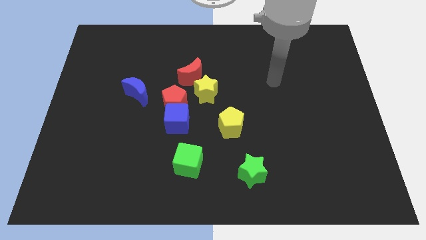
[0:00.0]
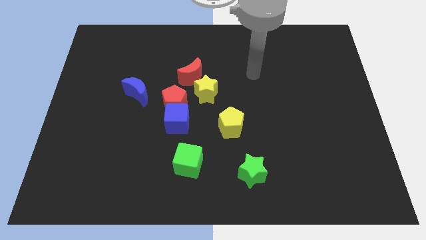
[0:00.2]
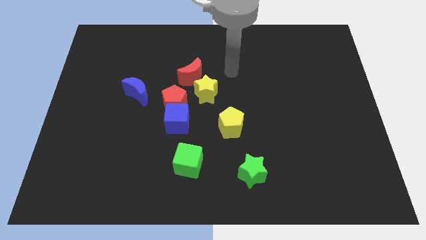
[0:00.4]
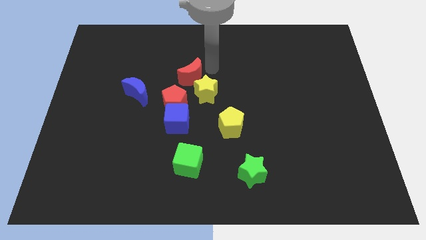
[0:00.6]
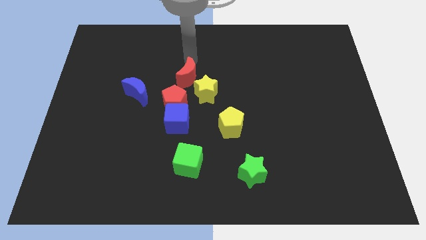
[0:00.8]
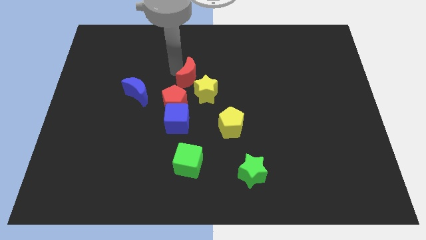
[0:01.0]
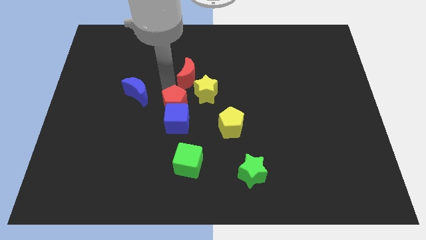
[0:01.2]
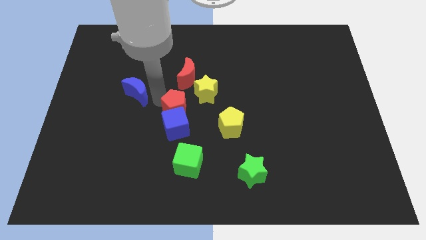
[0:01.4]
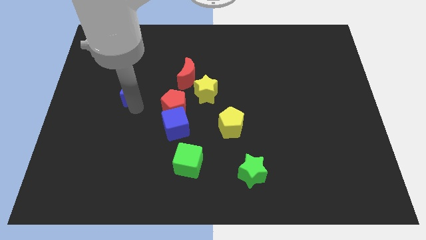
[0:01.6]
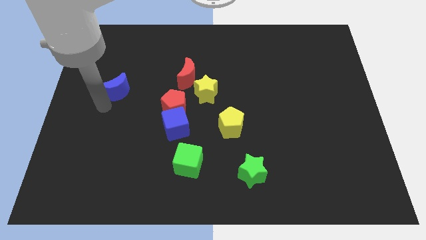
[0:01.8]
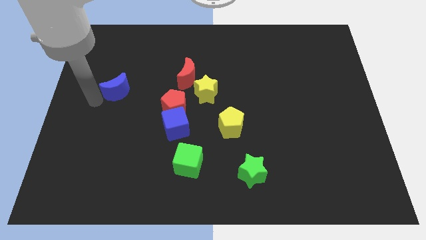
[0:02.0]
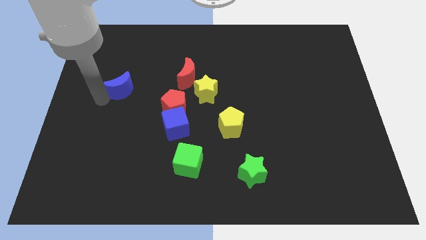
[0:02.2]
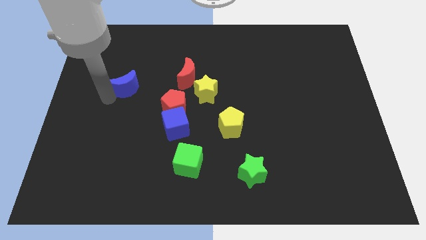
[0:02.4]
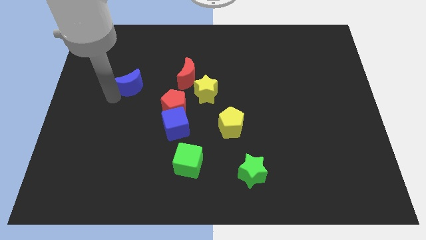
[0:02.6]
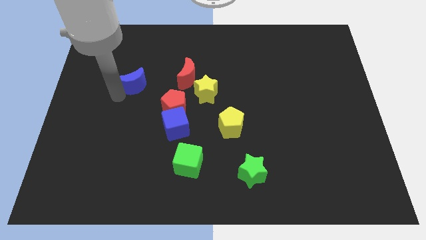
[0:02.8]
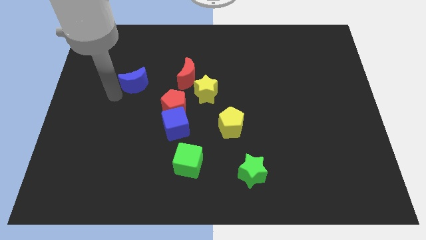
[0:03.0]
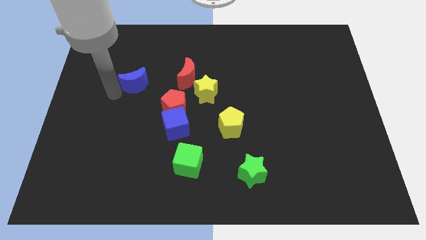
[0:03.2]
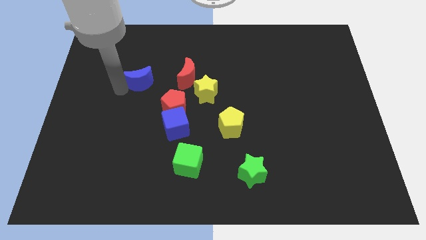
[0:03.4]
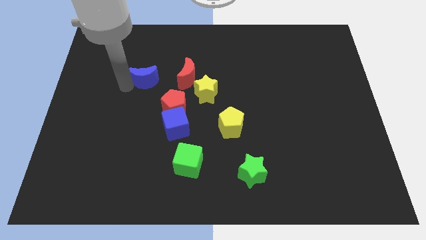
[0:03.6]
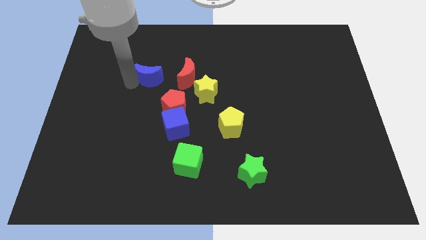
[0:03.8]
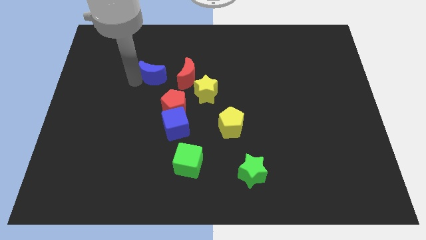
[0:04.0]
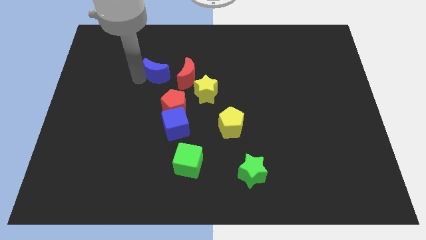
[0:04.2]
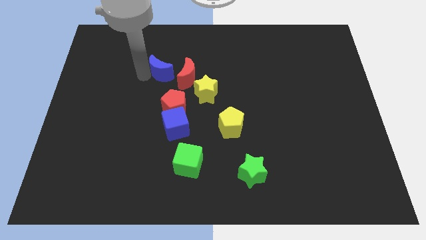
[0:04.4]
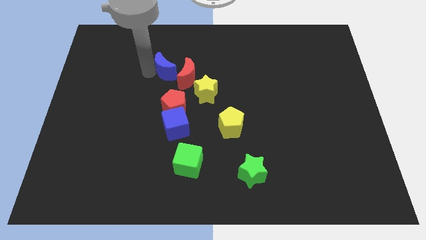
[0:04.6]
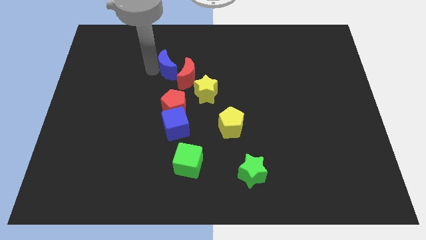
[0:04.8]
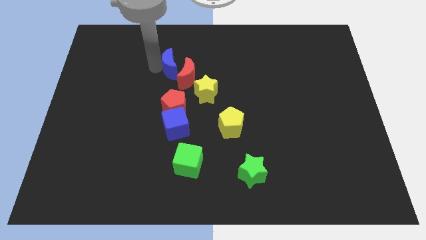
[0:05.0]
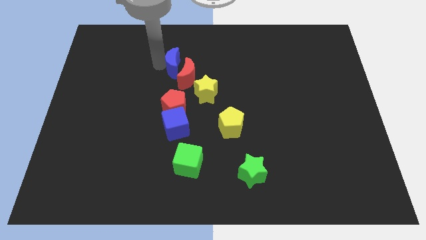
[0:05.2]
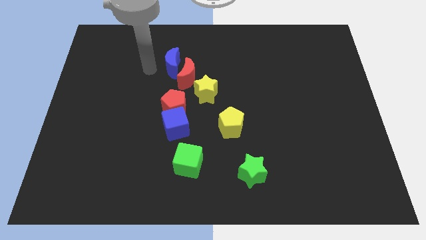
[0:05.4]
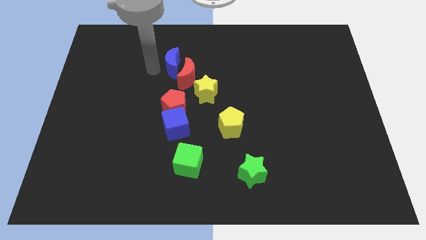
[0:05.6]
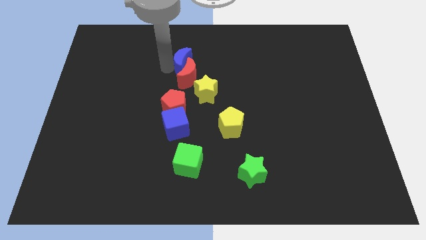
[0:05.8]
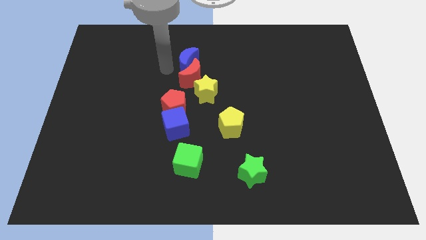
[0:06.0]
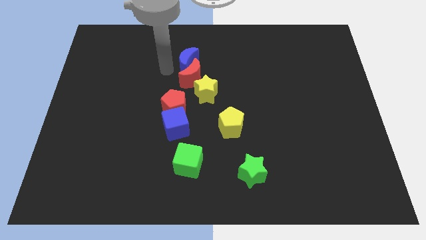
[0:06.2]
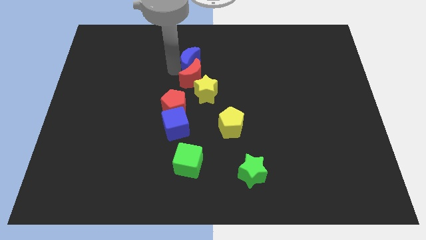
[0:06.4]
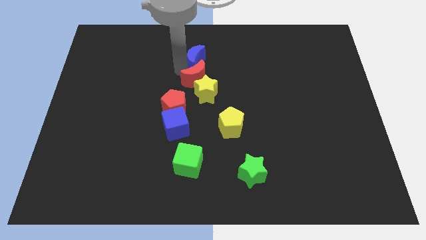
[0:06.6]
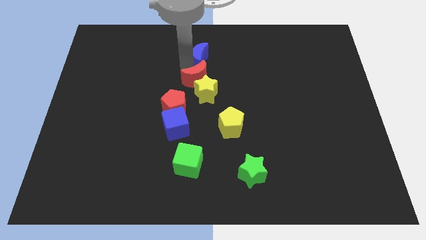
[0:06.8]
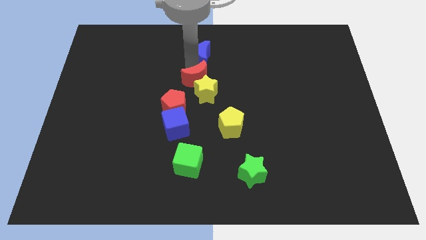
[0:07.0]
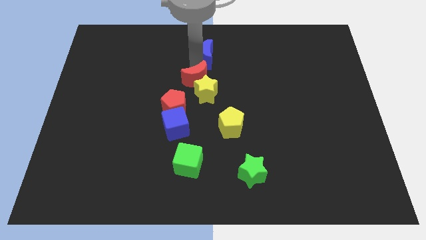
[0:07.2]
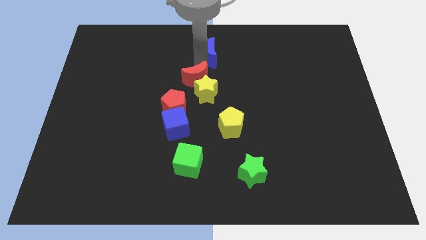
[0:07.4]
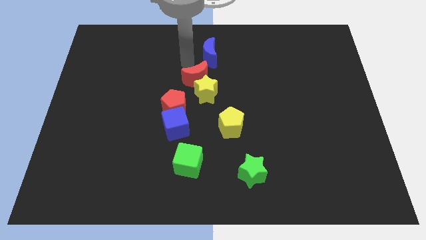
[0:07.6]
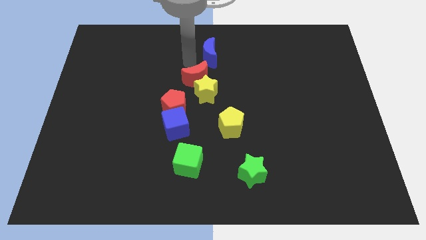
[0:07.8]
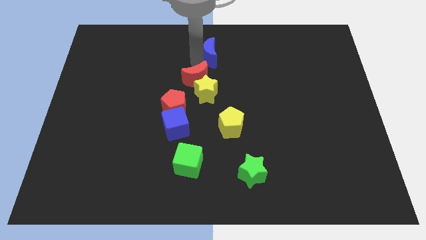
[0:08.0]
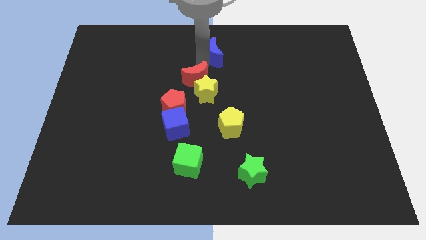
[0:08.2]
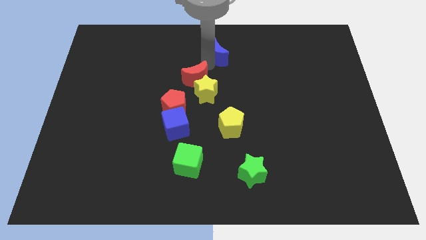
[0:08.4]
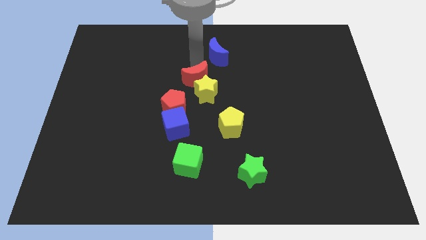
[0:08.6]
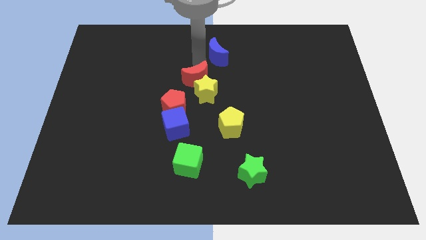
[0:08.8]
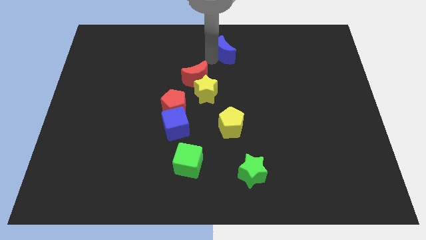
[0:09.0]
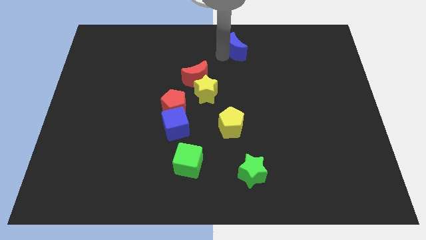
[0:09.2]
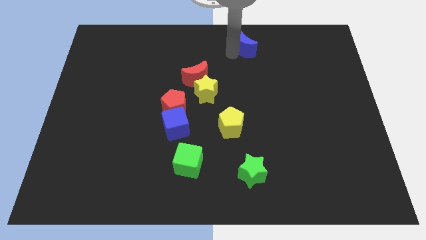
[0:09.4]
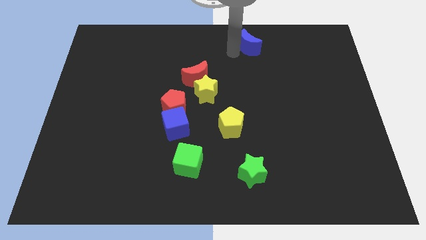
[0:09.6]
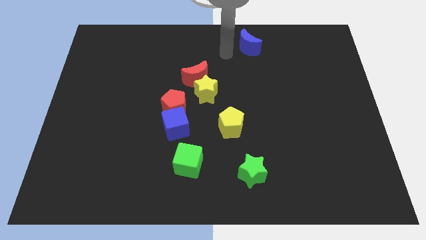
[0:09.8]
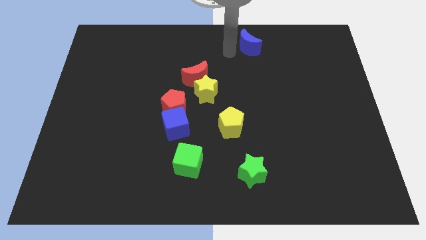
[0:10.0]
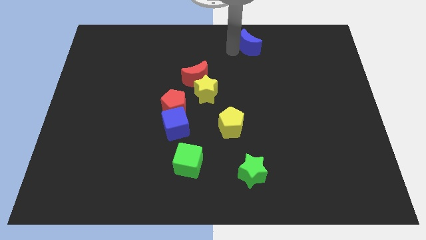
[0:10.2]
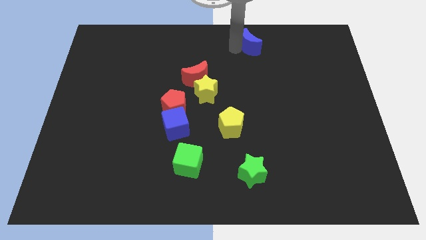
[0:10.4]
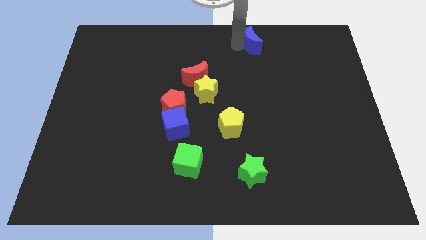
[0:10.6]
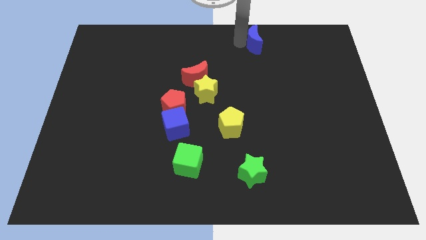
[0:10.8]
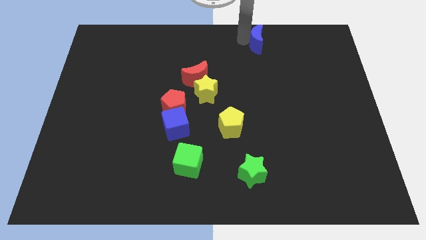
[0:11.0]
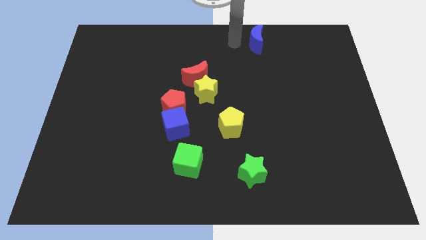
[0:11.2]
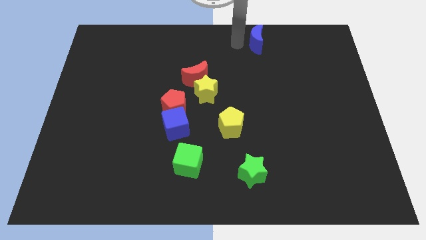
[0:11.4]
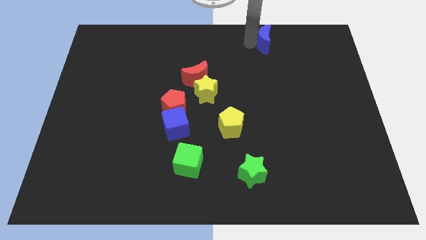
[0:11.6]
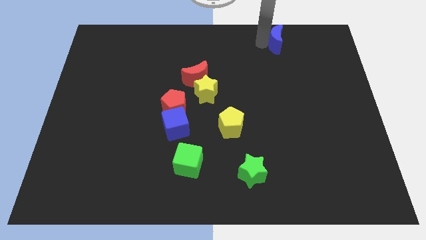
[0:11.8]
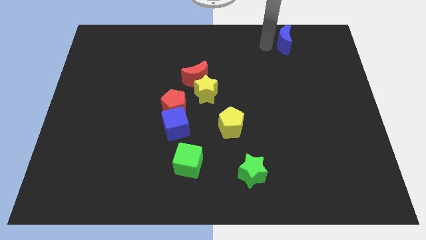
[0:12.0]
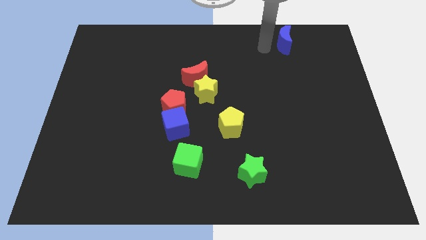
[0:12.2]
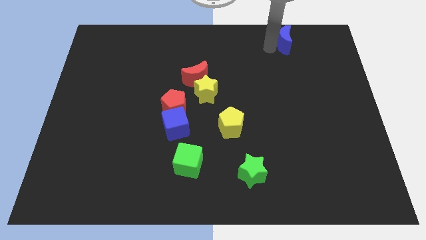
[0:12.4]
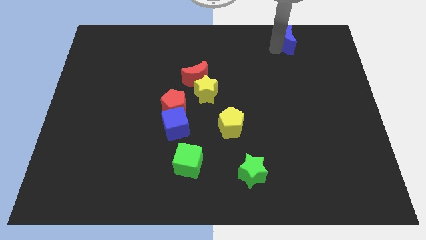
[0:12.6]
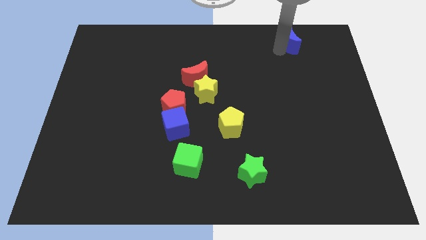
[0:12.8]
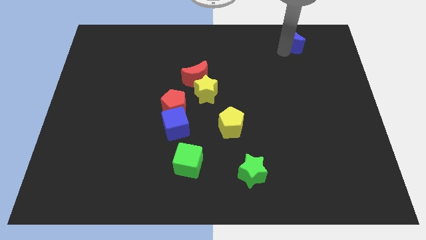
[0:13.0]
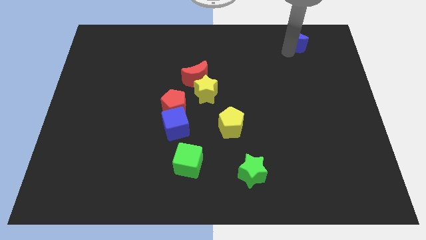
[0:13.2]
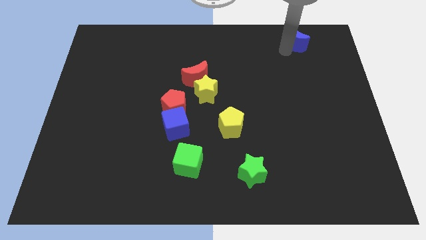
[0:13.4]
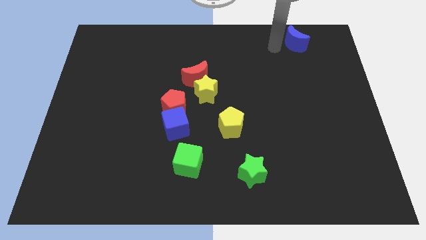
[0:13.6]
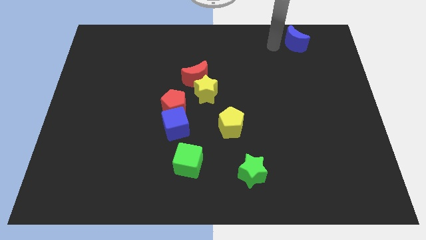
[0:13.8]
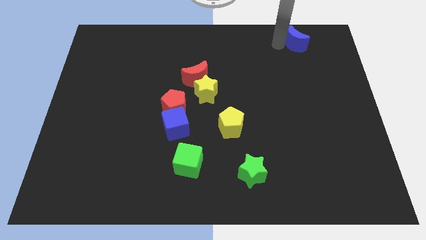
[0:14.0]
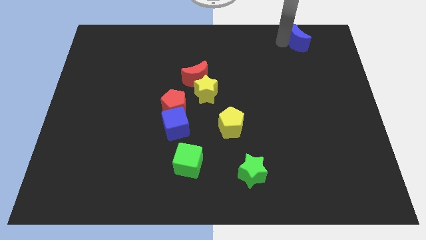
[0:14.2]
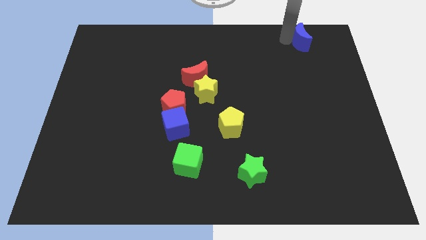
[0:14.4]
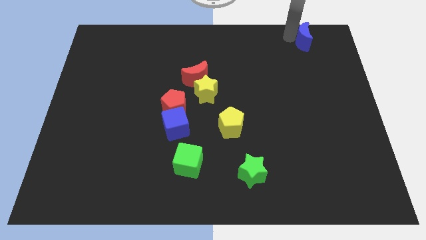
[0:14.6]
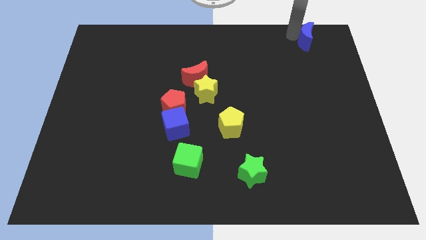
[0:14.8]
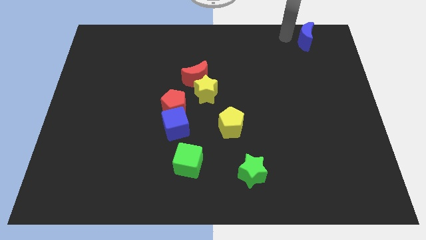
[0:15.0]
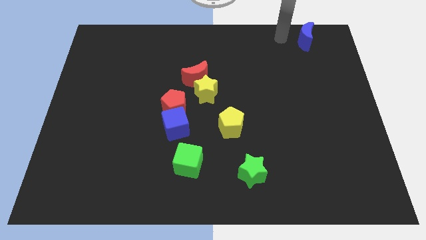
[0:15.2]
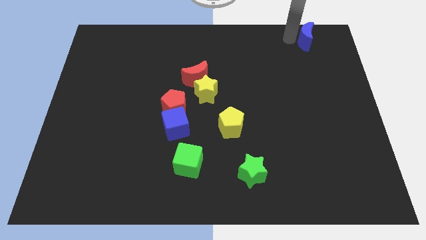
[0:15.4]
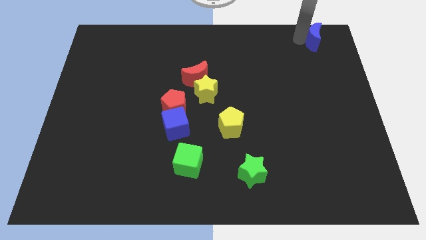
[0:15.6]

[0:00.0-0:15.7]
push the blue moon to the upper right corner
